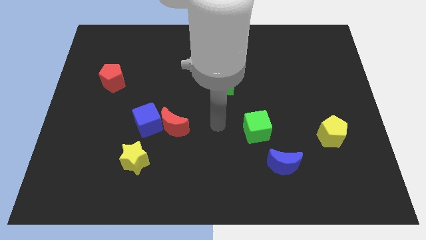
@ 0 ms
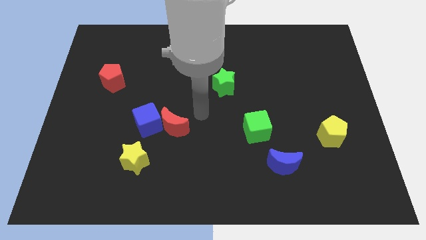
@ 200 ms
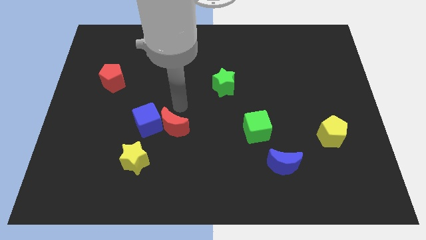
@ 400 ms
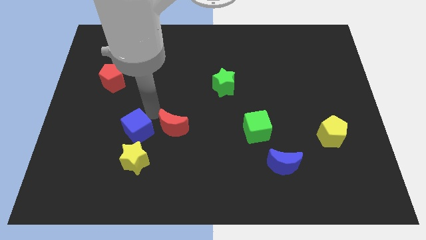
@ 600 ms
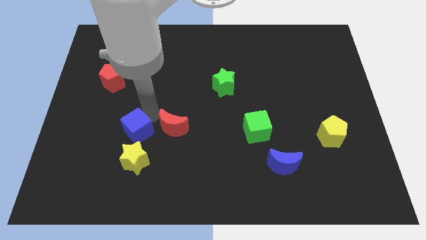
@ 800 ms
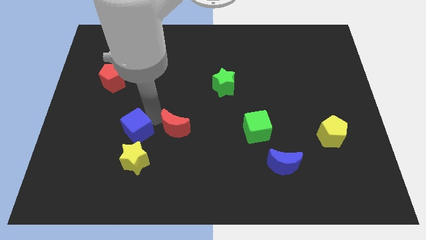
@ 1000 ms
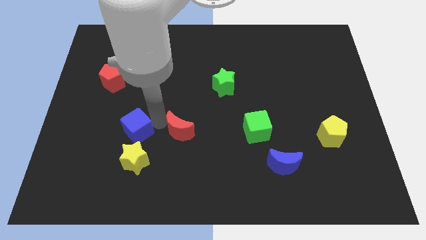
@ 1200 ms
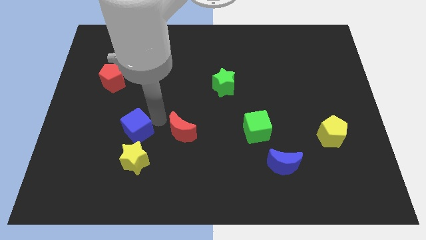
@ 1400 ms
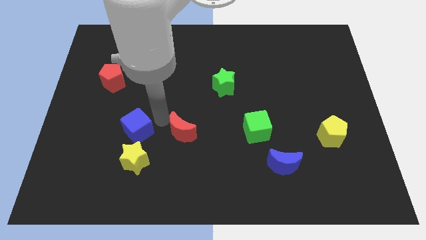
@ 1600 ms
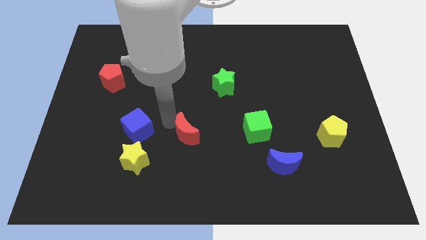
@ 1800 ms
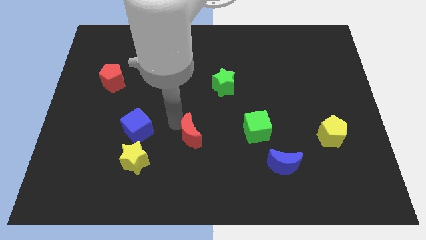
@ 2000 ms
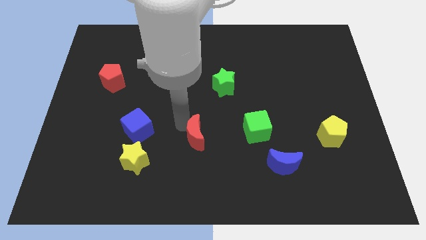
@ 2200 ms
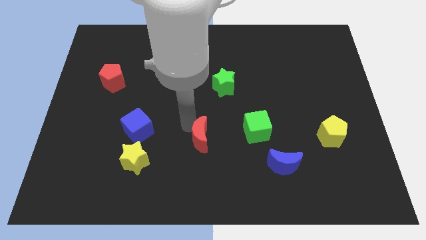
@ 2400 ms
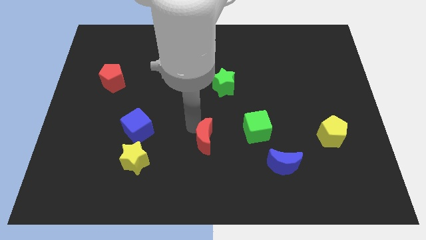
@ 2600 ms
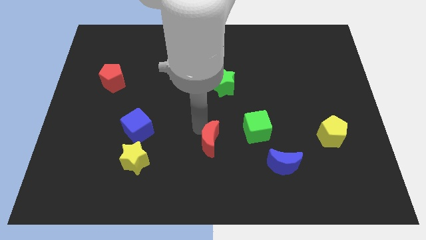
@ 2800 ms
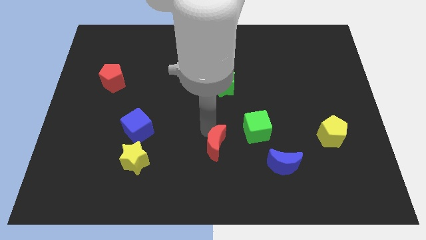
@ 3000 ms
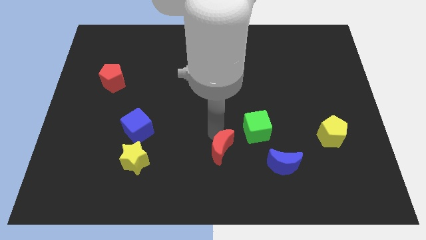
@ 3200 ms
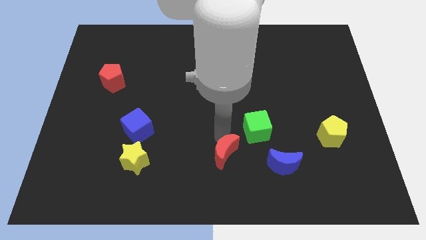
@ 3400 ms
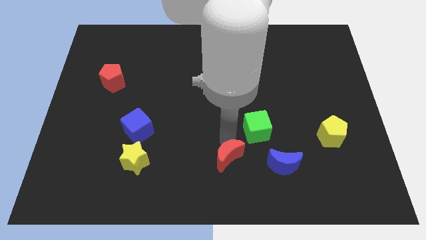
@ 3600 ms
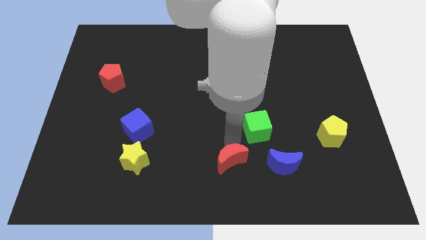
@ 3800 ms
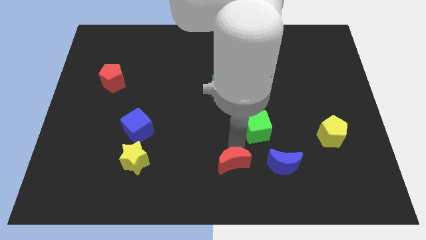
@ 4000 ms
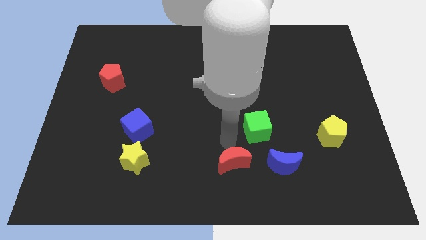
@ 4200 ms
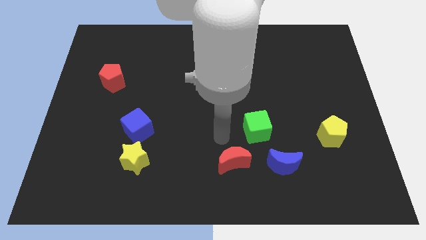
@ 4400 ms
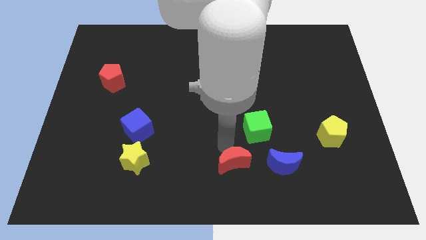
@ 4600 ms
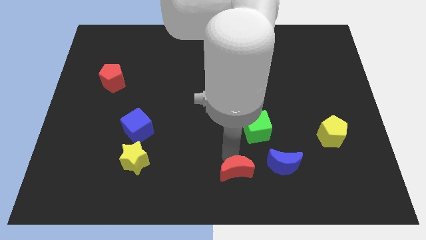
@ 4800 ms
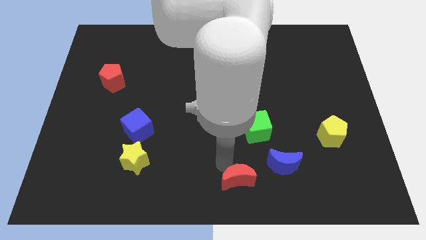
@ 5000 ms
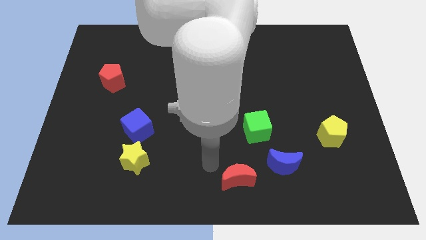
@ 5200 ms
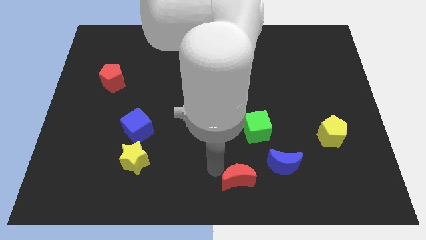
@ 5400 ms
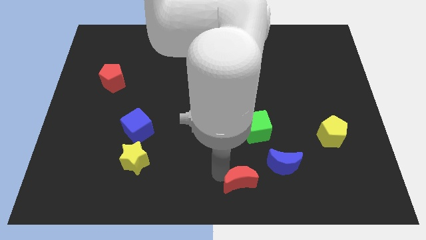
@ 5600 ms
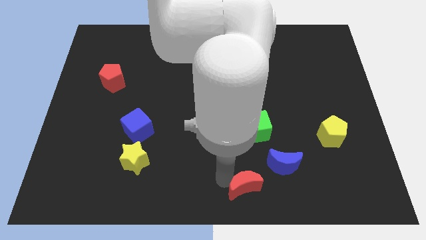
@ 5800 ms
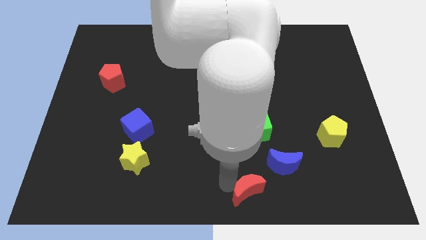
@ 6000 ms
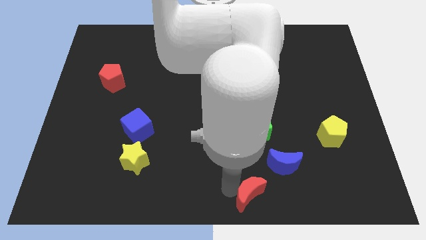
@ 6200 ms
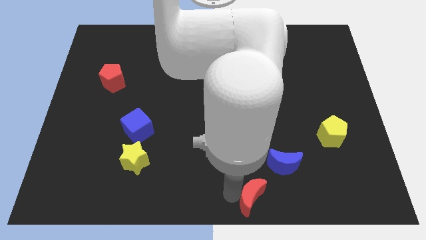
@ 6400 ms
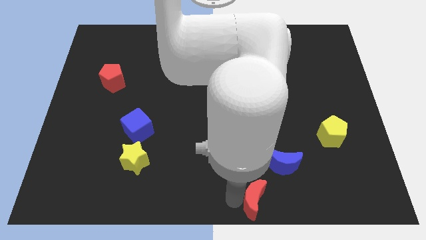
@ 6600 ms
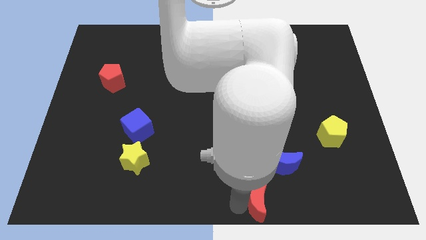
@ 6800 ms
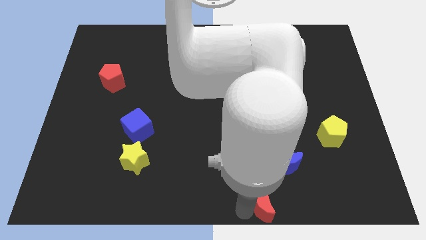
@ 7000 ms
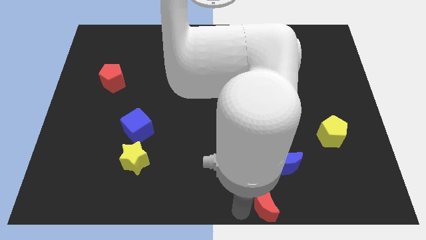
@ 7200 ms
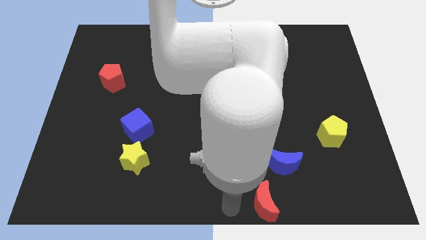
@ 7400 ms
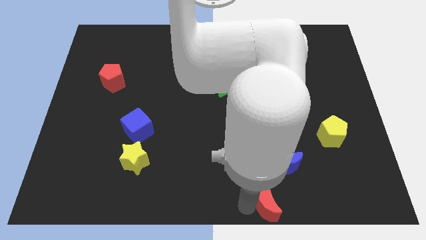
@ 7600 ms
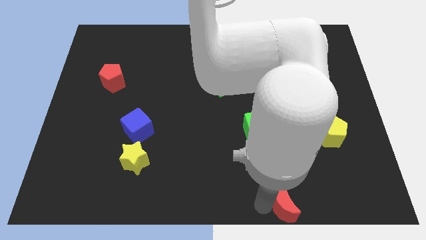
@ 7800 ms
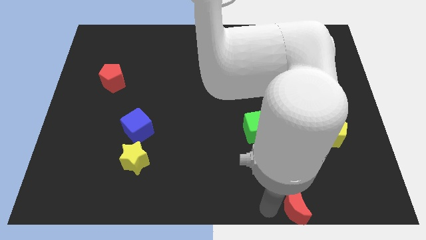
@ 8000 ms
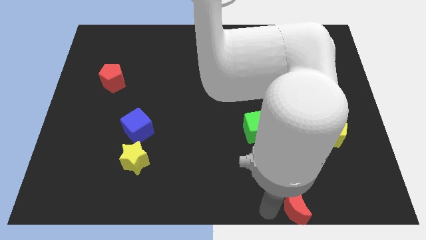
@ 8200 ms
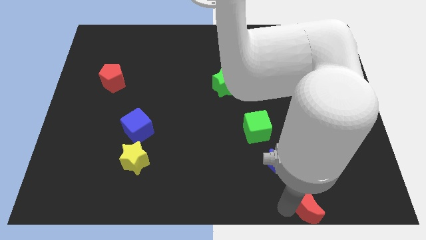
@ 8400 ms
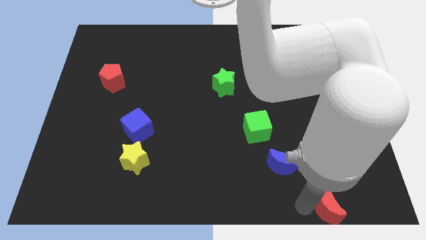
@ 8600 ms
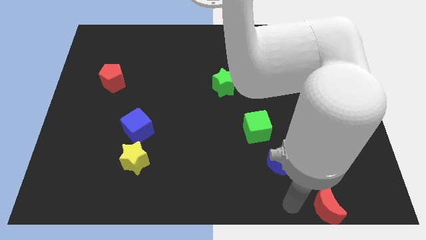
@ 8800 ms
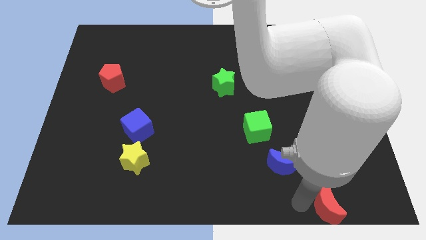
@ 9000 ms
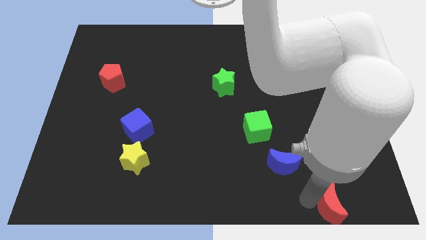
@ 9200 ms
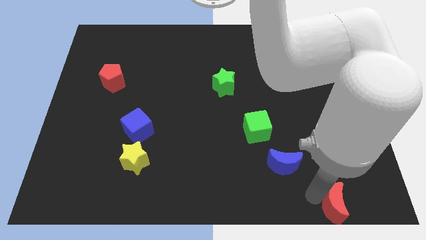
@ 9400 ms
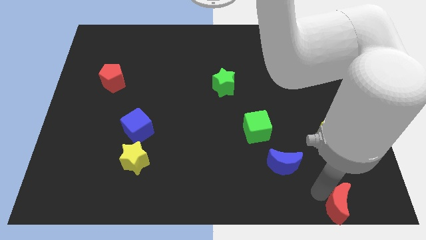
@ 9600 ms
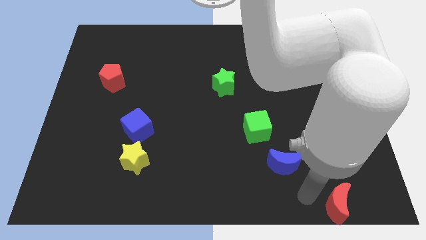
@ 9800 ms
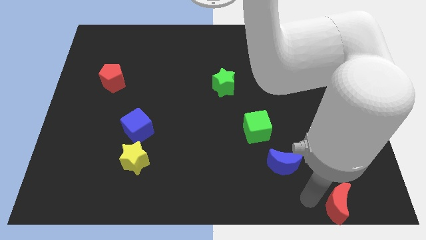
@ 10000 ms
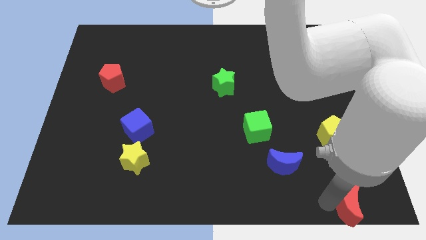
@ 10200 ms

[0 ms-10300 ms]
slide the red moon to the bottom right of the board

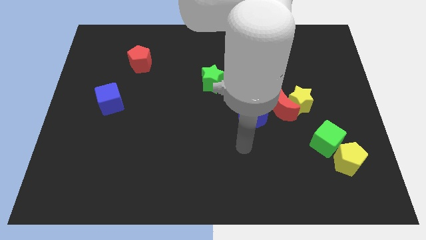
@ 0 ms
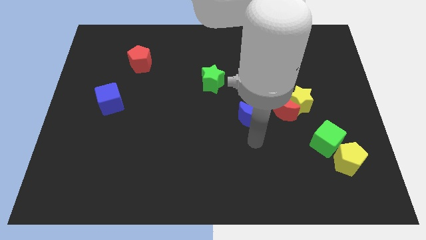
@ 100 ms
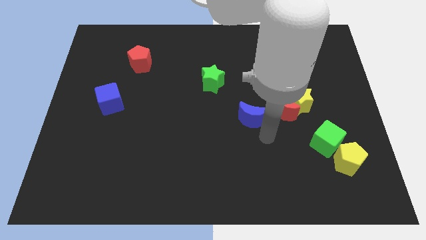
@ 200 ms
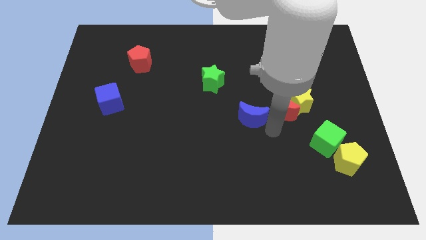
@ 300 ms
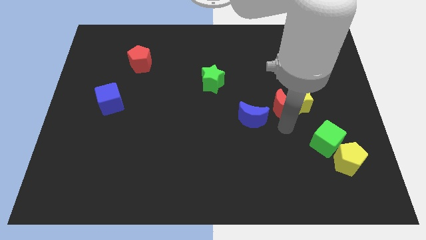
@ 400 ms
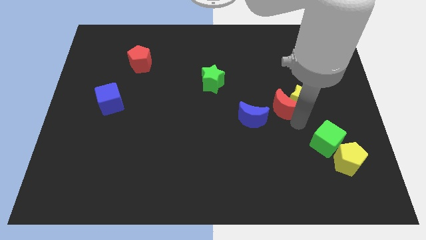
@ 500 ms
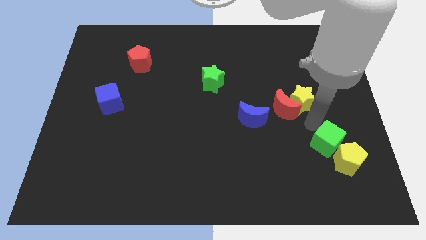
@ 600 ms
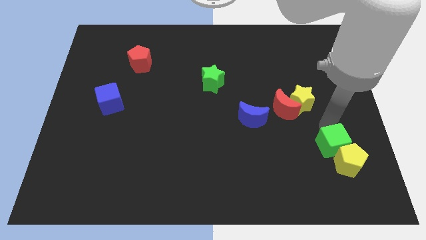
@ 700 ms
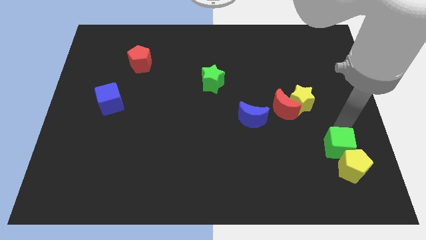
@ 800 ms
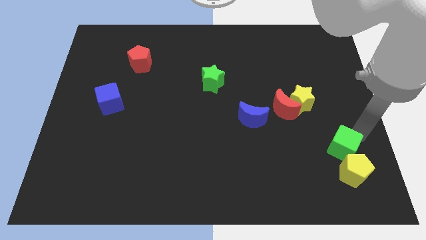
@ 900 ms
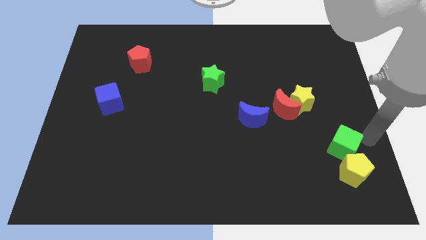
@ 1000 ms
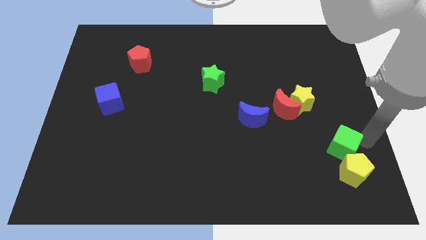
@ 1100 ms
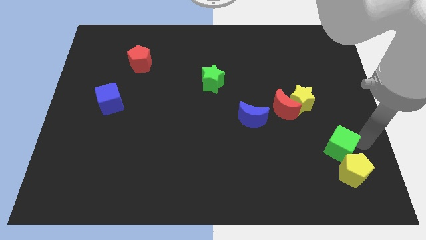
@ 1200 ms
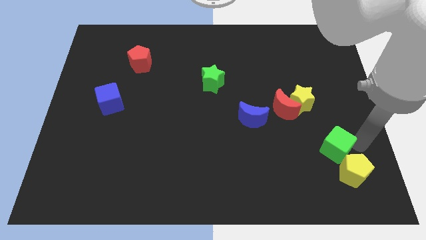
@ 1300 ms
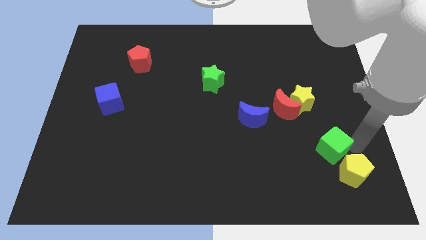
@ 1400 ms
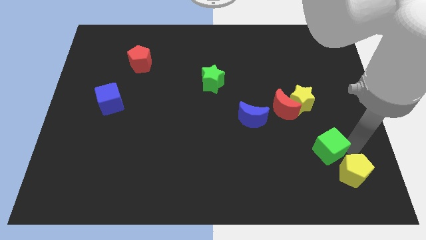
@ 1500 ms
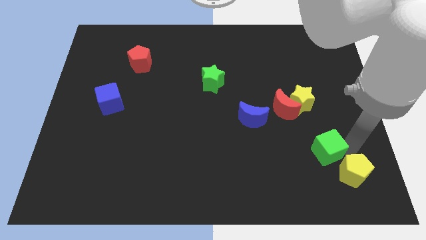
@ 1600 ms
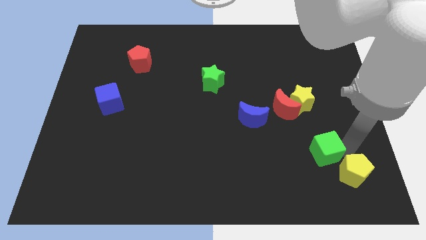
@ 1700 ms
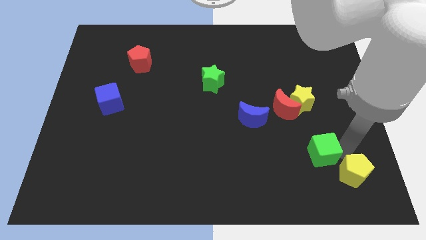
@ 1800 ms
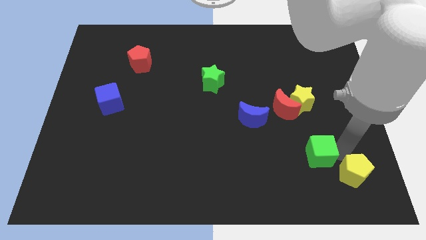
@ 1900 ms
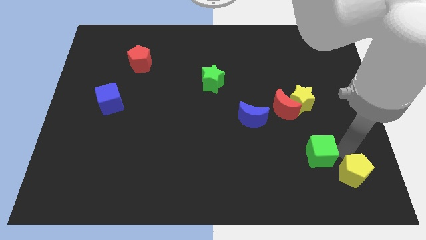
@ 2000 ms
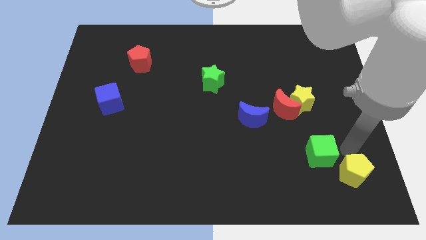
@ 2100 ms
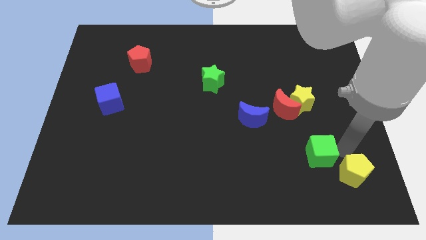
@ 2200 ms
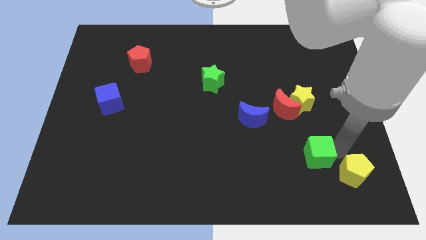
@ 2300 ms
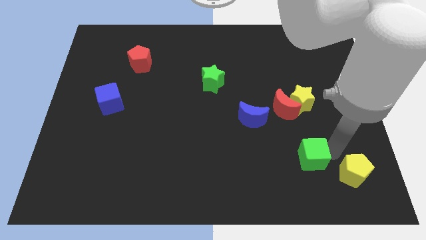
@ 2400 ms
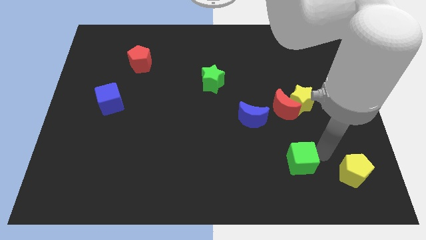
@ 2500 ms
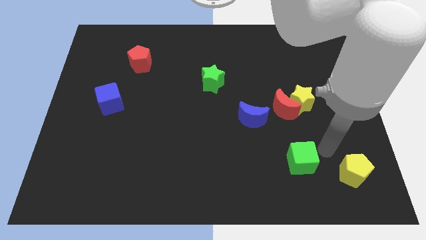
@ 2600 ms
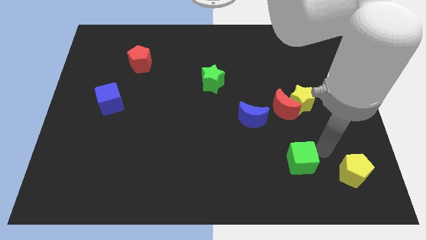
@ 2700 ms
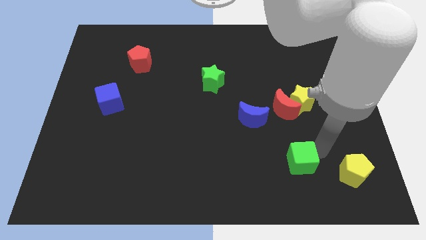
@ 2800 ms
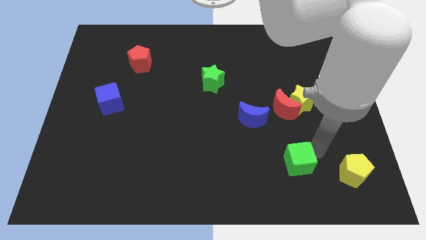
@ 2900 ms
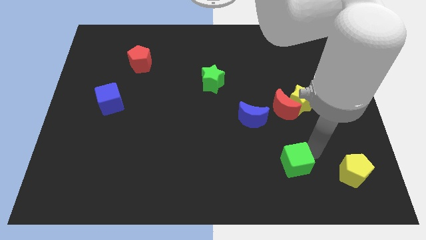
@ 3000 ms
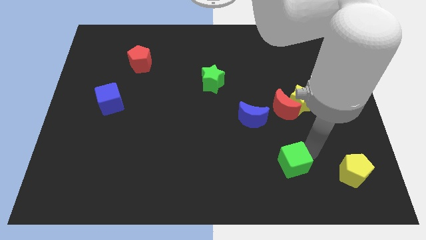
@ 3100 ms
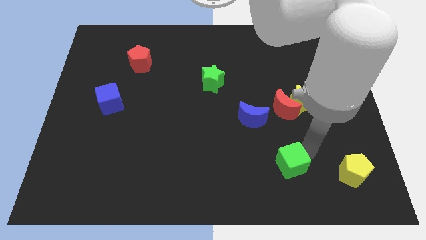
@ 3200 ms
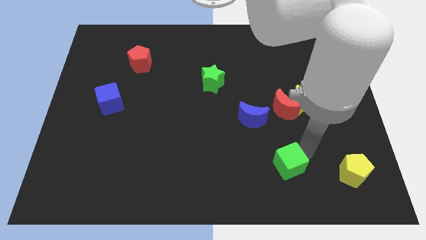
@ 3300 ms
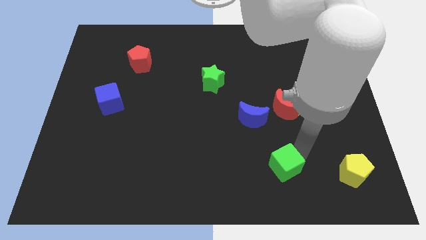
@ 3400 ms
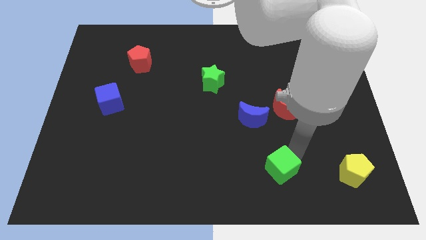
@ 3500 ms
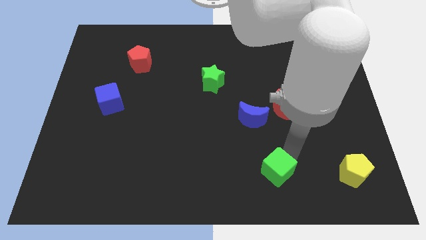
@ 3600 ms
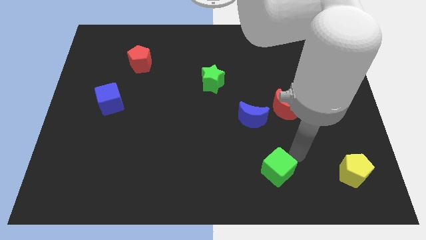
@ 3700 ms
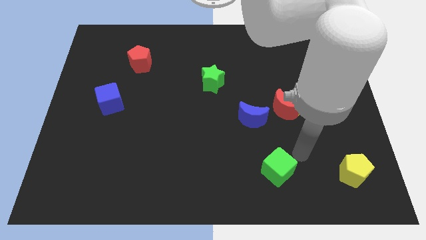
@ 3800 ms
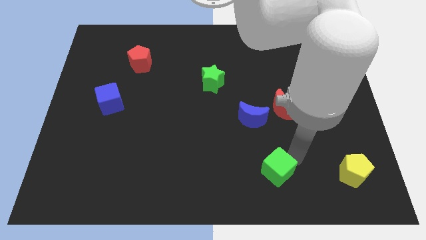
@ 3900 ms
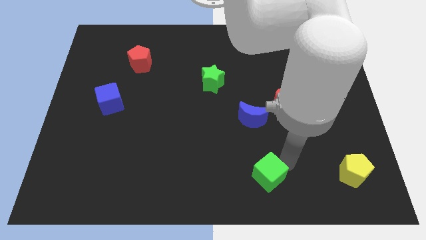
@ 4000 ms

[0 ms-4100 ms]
move the green cube to the bottom
